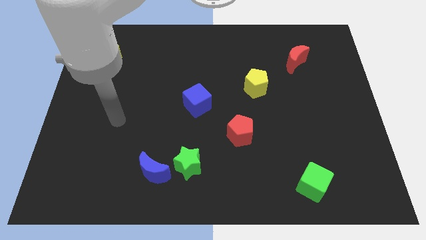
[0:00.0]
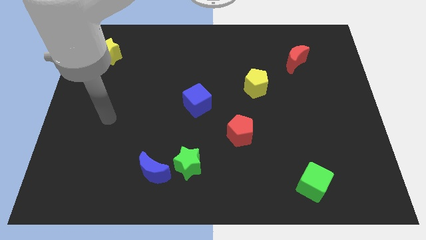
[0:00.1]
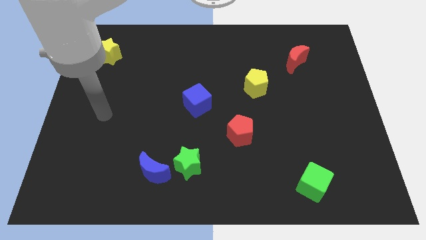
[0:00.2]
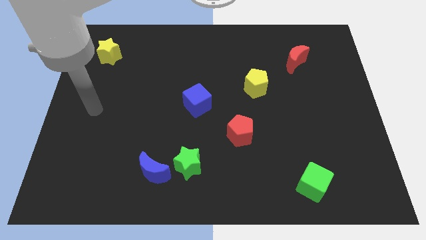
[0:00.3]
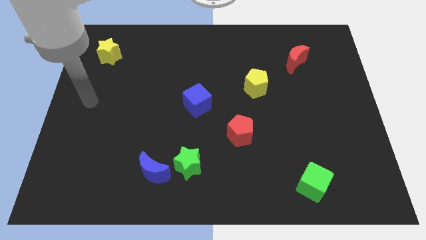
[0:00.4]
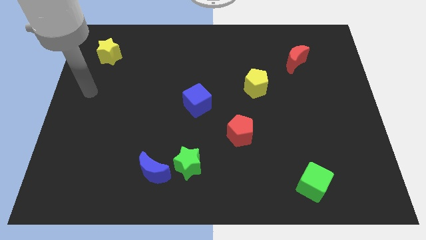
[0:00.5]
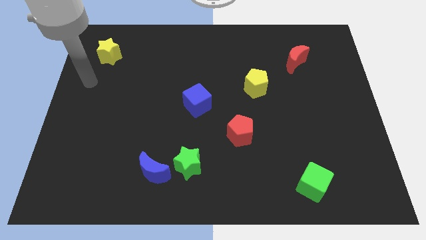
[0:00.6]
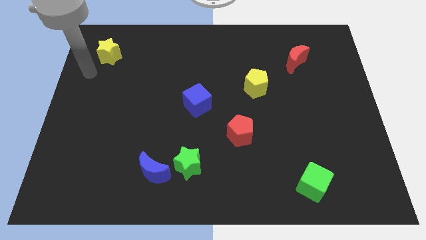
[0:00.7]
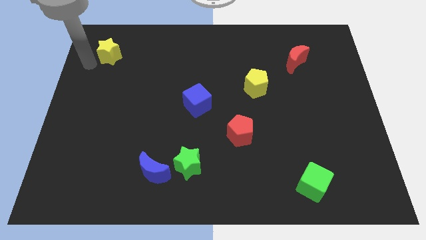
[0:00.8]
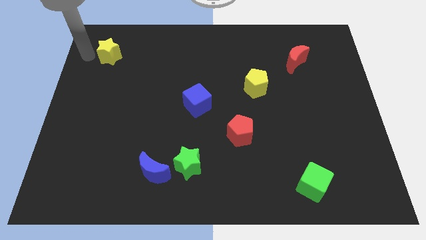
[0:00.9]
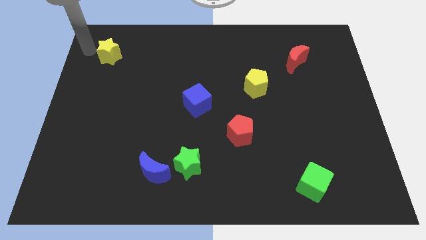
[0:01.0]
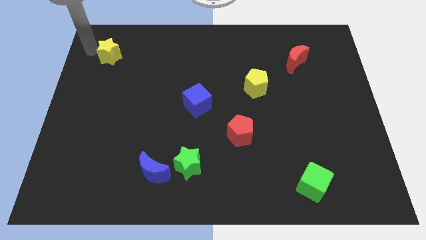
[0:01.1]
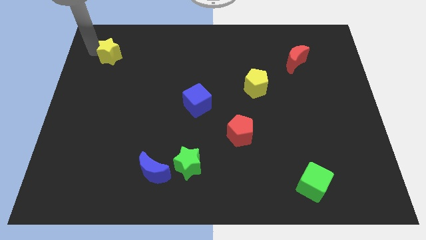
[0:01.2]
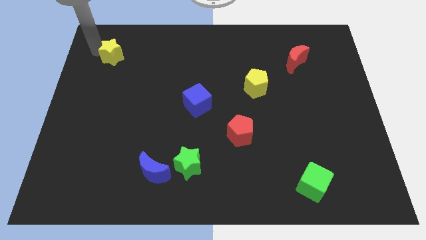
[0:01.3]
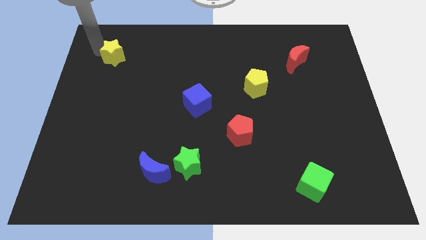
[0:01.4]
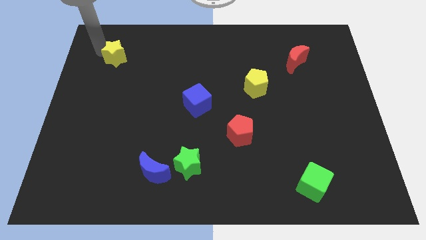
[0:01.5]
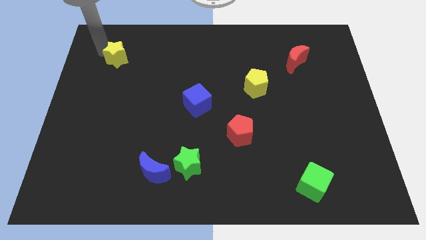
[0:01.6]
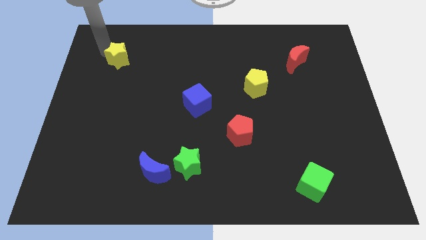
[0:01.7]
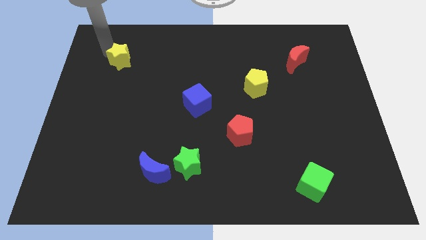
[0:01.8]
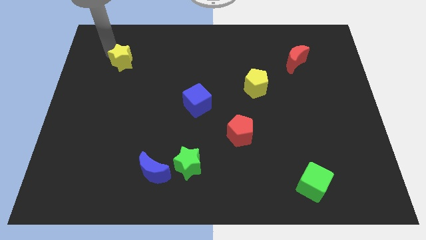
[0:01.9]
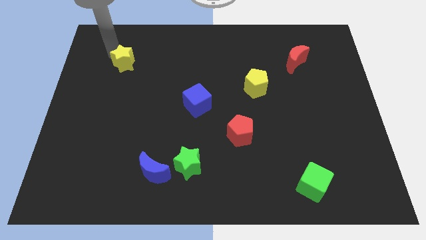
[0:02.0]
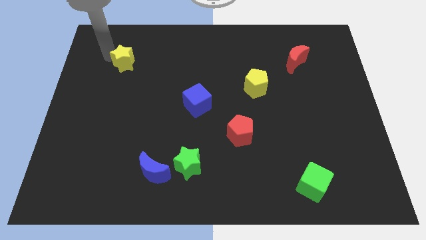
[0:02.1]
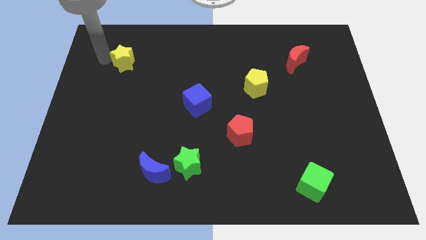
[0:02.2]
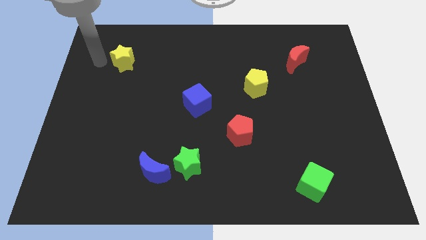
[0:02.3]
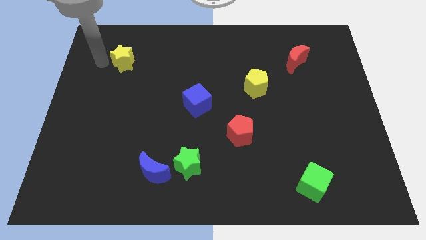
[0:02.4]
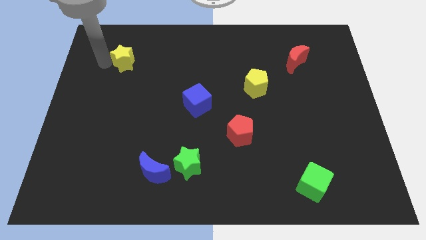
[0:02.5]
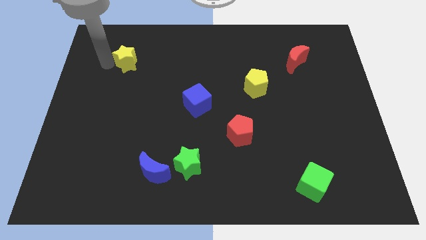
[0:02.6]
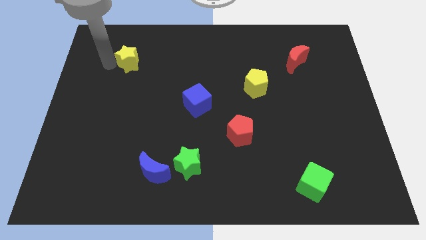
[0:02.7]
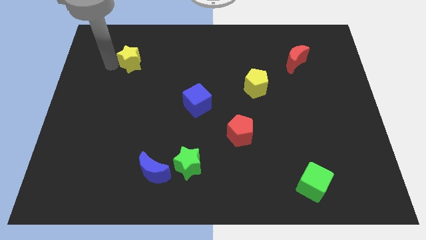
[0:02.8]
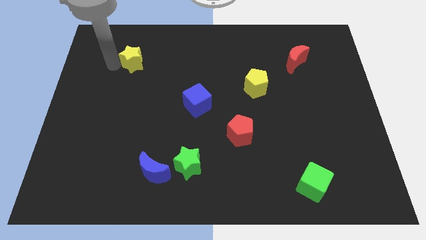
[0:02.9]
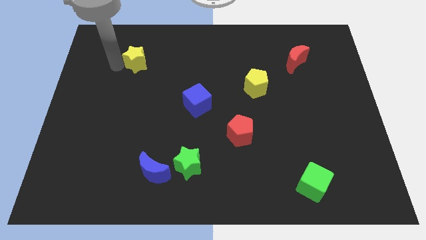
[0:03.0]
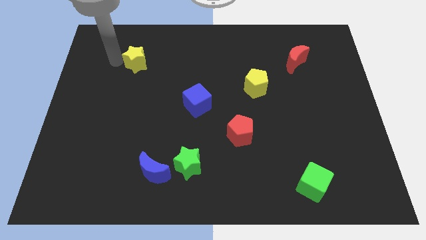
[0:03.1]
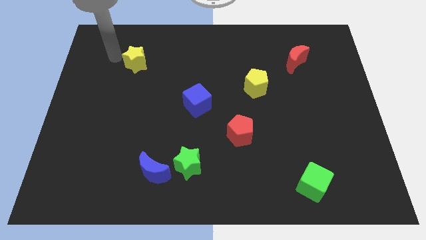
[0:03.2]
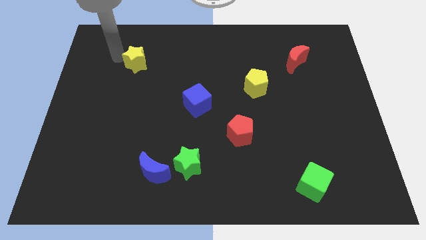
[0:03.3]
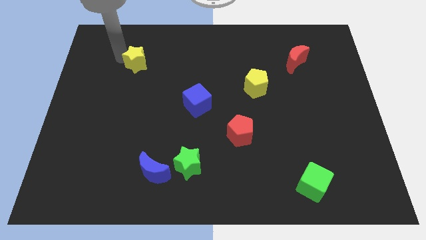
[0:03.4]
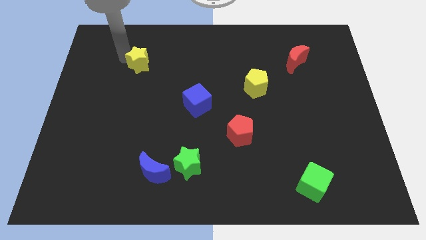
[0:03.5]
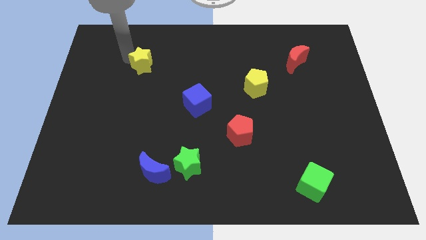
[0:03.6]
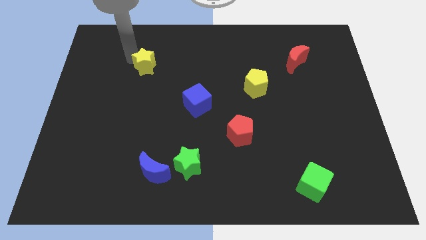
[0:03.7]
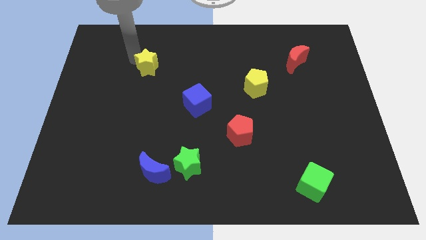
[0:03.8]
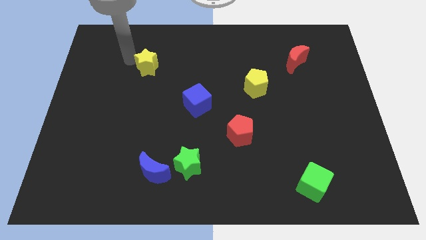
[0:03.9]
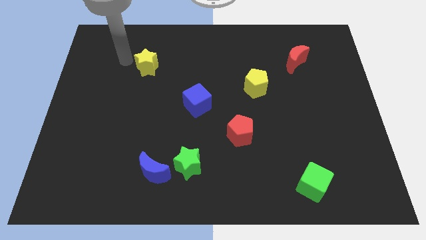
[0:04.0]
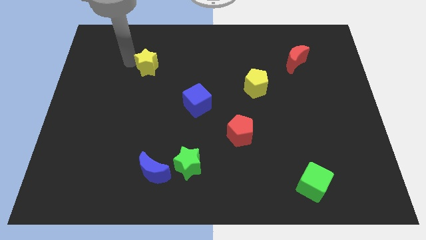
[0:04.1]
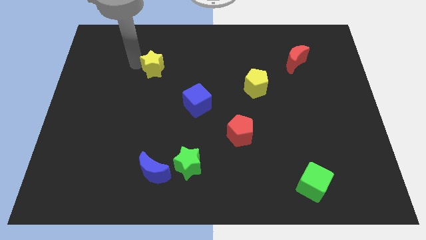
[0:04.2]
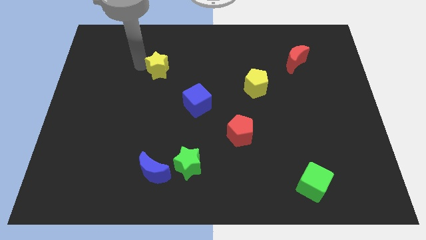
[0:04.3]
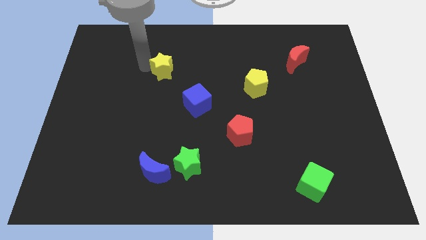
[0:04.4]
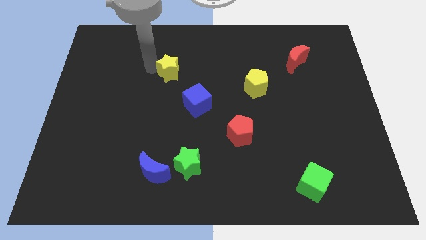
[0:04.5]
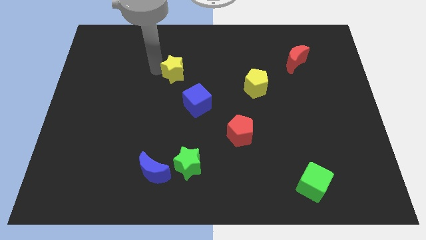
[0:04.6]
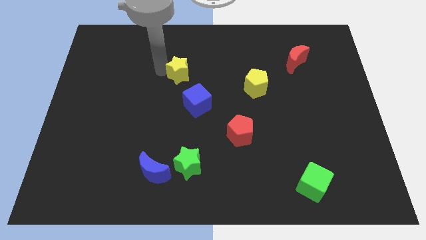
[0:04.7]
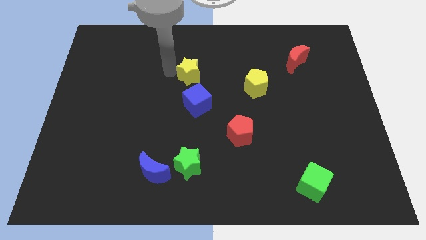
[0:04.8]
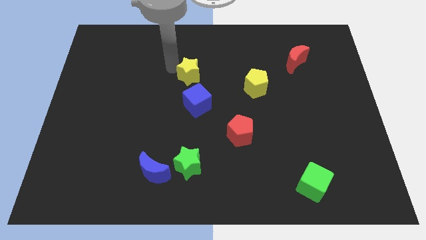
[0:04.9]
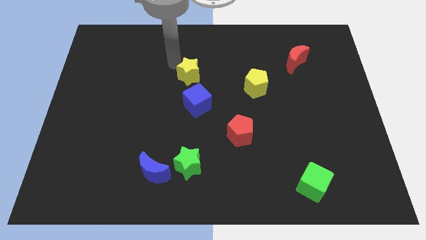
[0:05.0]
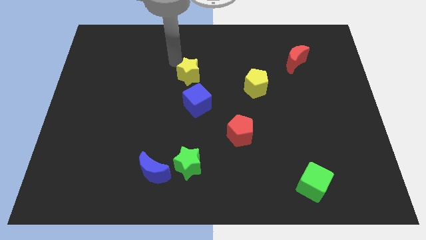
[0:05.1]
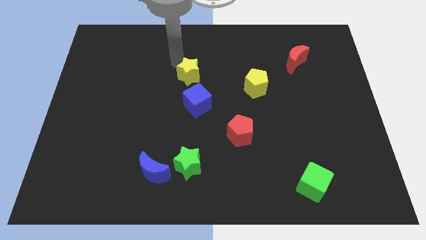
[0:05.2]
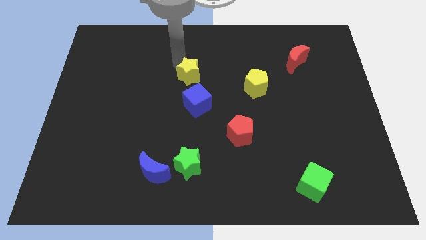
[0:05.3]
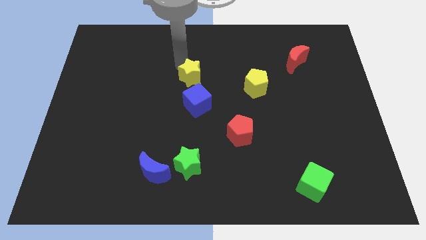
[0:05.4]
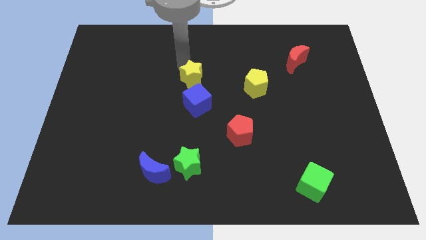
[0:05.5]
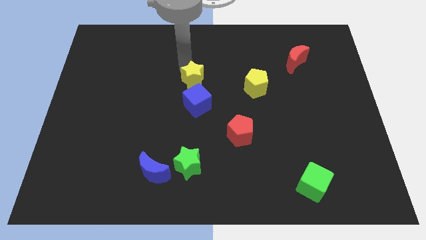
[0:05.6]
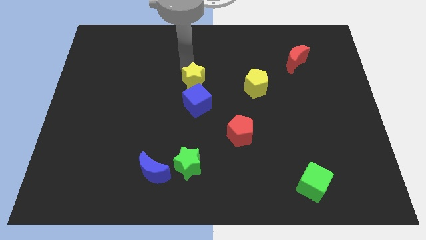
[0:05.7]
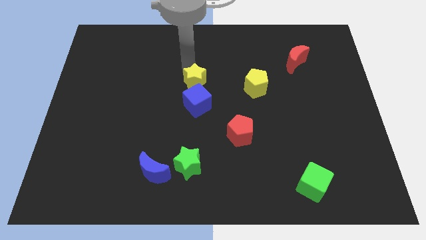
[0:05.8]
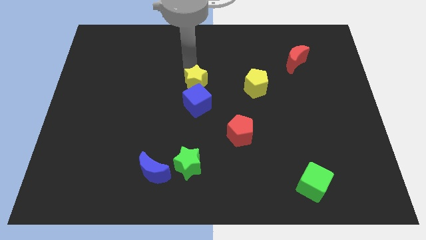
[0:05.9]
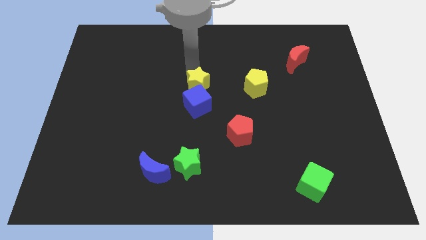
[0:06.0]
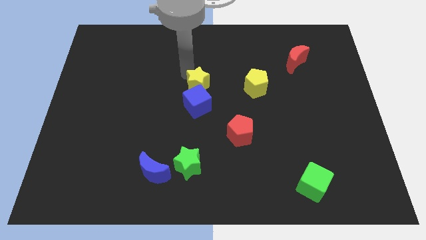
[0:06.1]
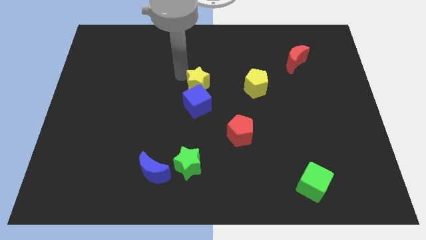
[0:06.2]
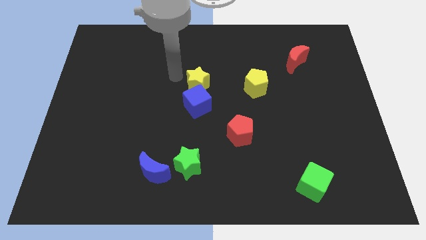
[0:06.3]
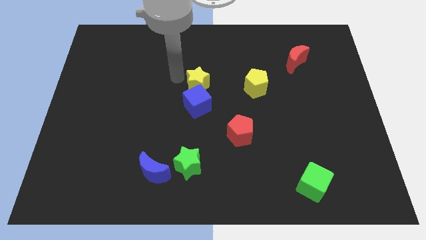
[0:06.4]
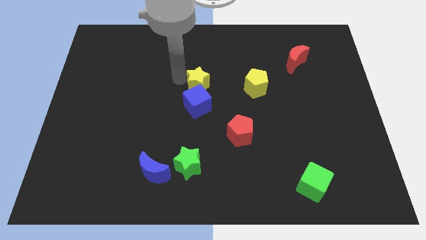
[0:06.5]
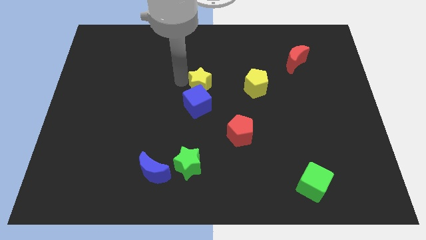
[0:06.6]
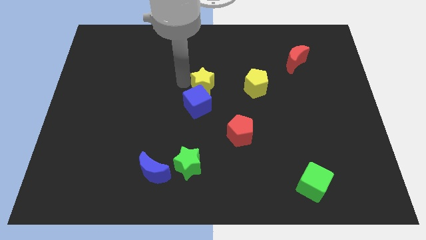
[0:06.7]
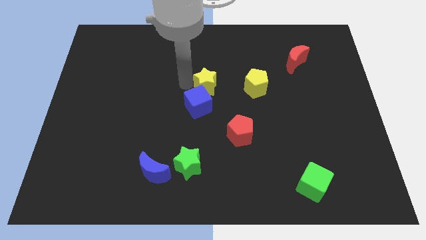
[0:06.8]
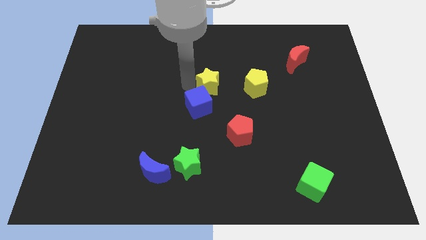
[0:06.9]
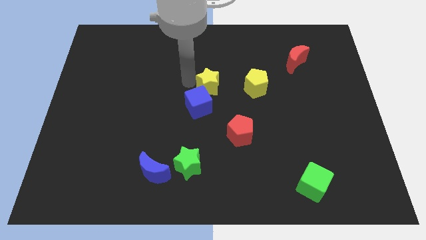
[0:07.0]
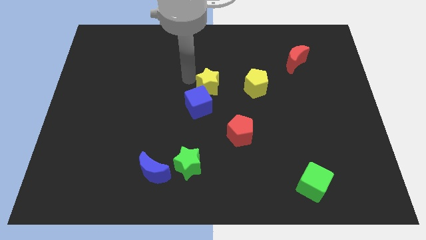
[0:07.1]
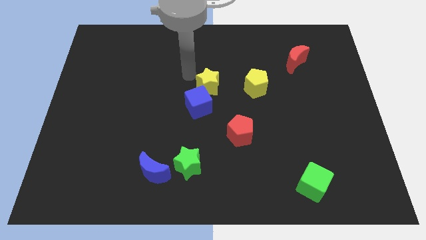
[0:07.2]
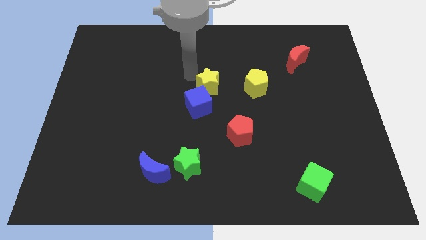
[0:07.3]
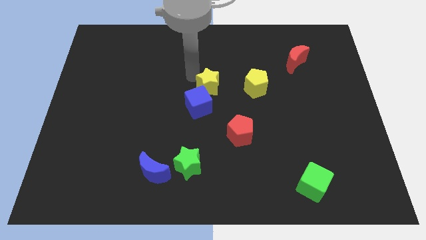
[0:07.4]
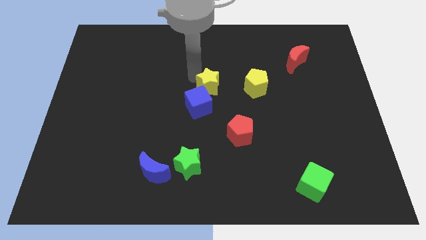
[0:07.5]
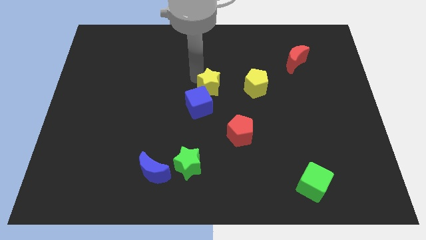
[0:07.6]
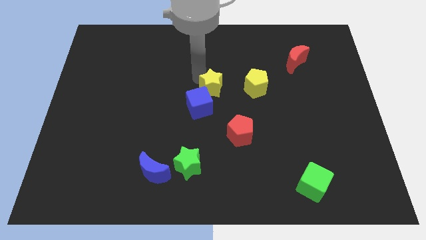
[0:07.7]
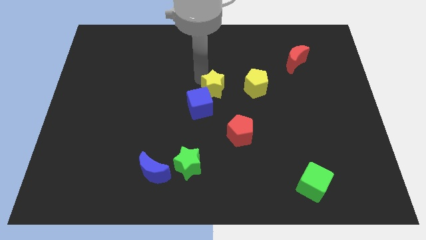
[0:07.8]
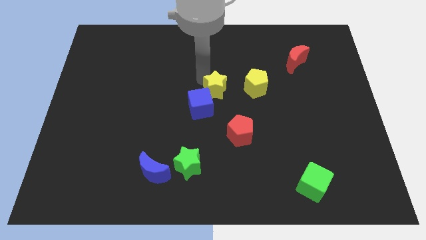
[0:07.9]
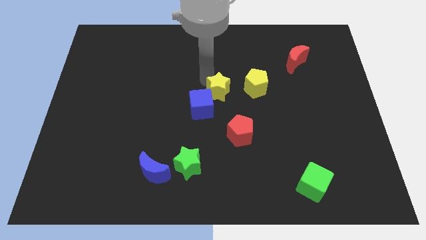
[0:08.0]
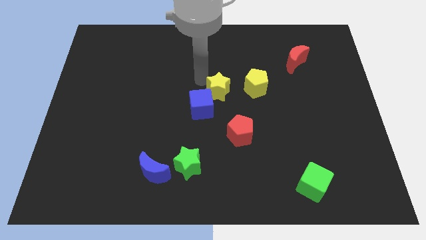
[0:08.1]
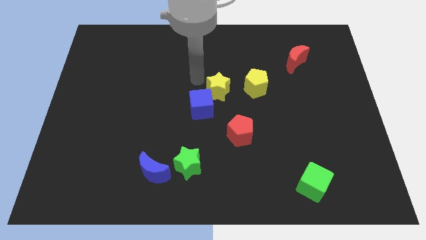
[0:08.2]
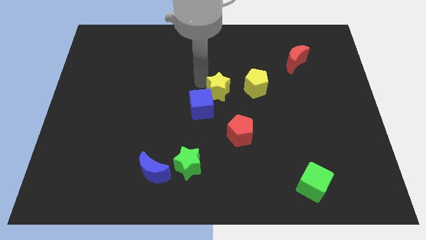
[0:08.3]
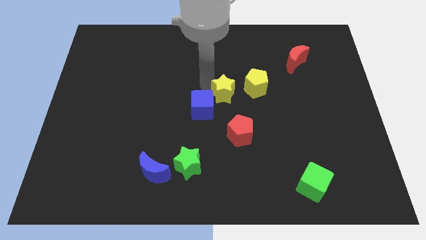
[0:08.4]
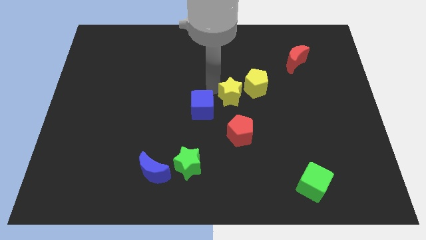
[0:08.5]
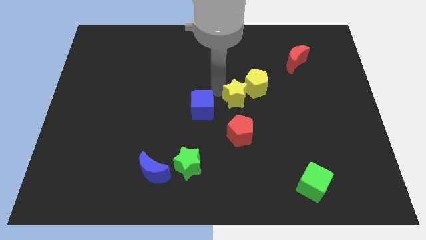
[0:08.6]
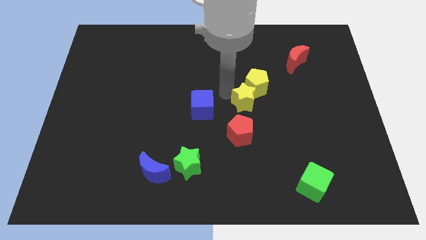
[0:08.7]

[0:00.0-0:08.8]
push the yellow star below the yellow pentagon
